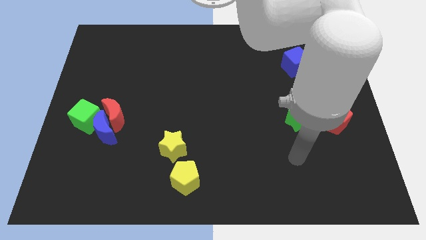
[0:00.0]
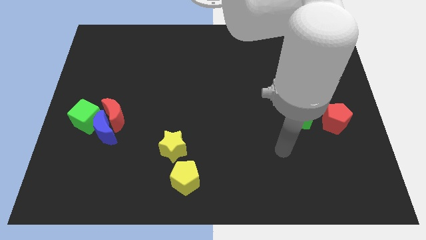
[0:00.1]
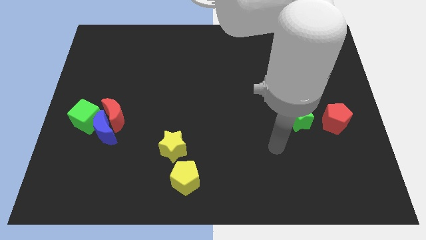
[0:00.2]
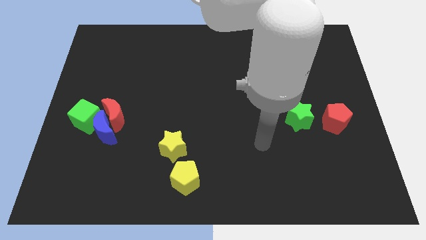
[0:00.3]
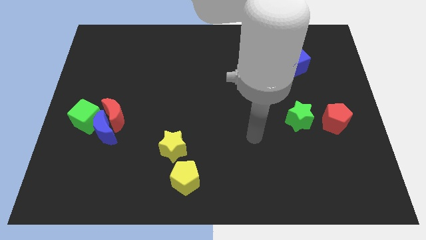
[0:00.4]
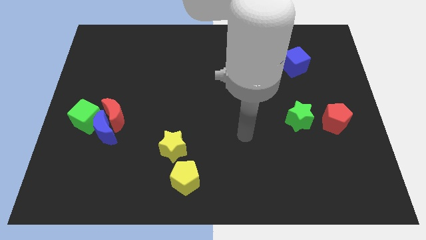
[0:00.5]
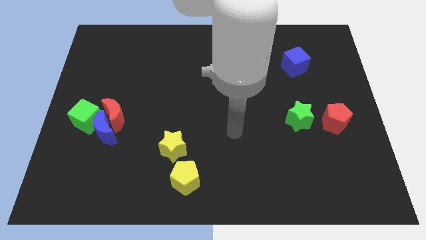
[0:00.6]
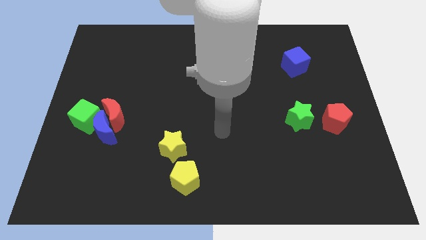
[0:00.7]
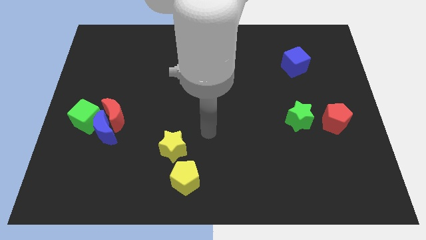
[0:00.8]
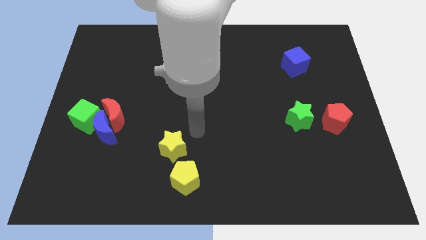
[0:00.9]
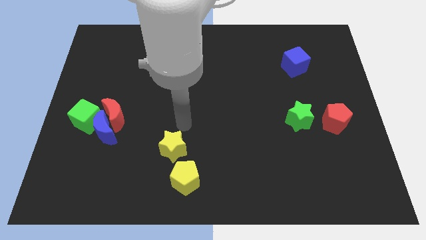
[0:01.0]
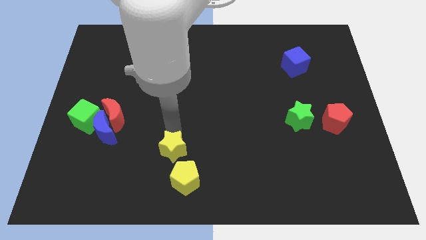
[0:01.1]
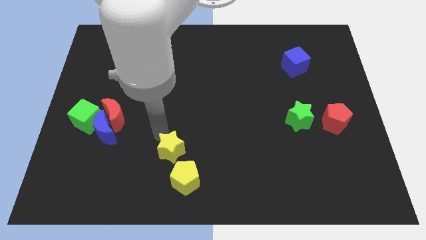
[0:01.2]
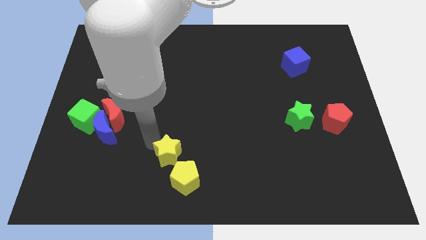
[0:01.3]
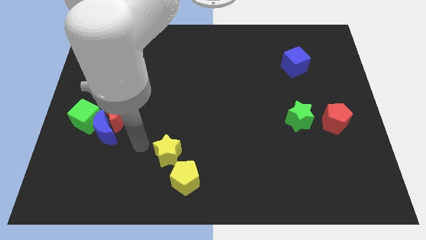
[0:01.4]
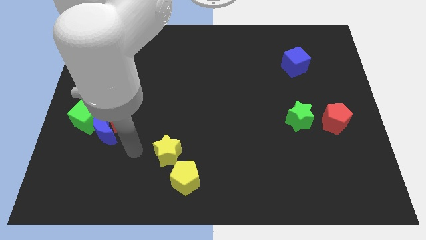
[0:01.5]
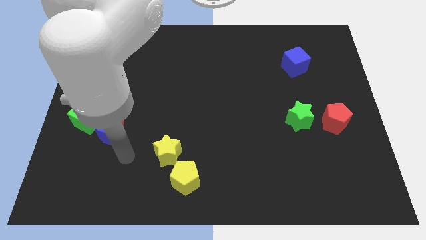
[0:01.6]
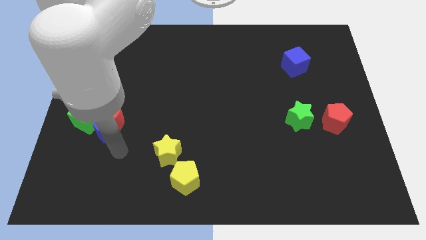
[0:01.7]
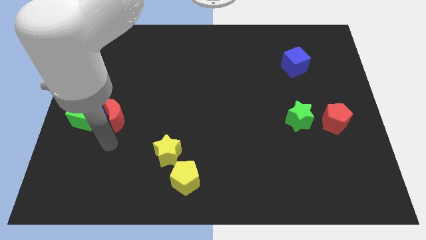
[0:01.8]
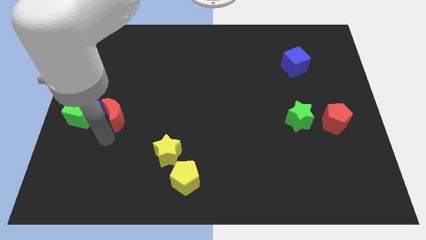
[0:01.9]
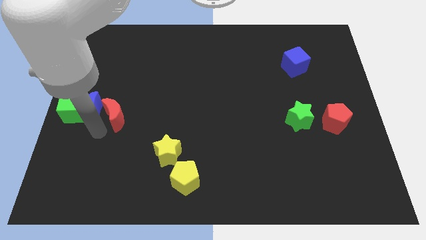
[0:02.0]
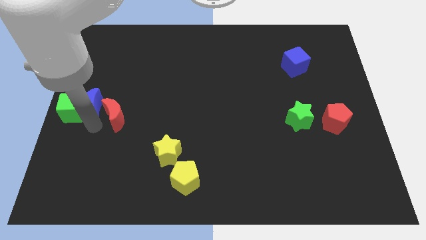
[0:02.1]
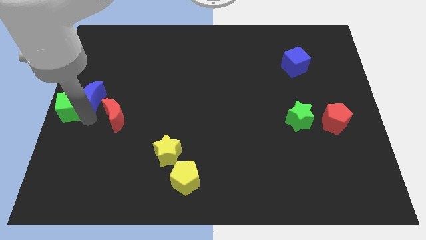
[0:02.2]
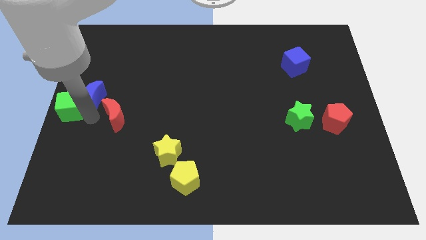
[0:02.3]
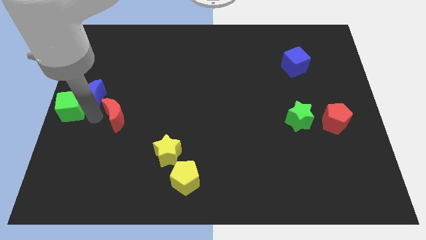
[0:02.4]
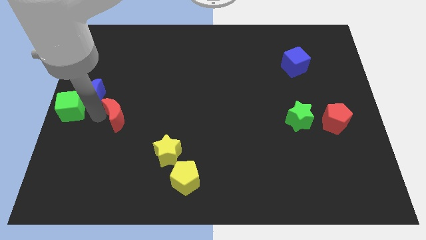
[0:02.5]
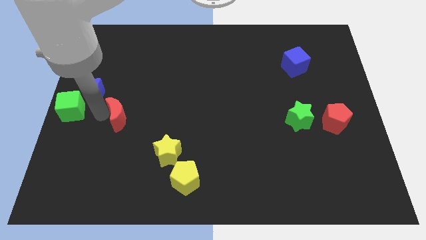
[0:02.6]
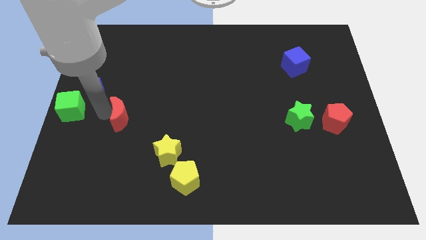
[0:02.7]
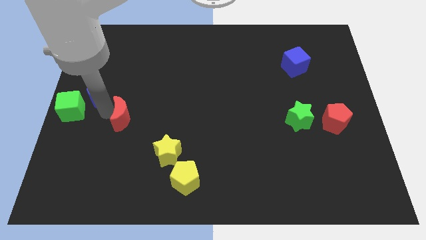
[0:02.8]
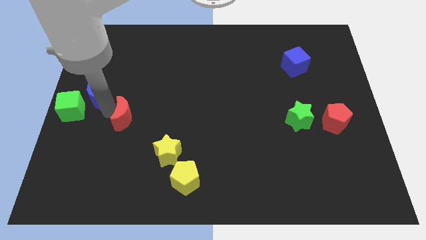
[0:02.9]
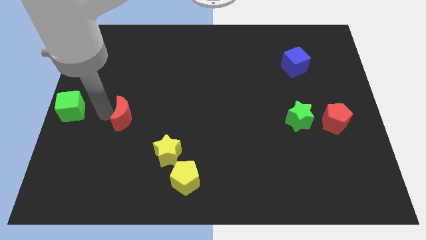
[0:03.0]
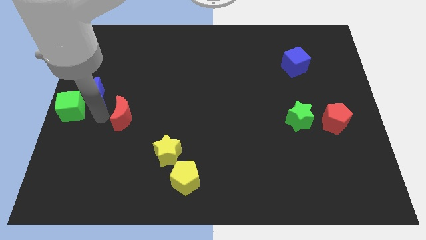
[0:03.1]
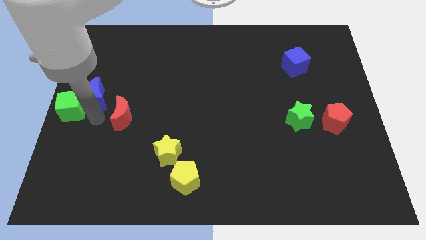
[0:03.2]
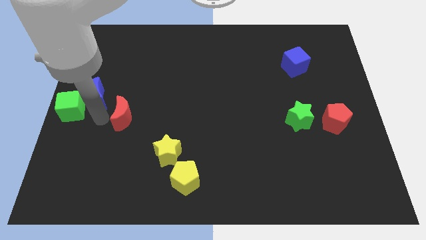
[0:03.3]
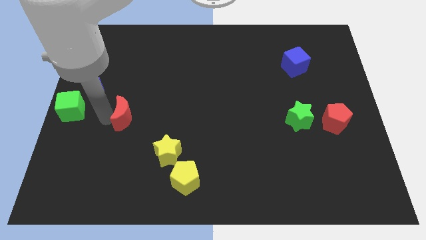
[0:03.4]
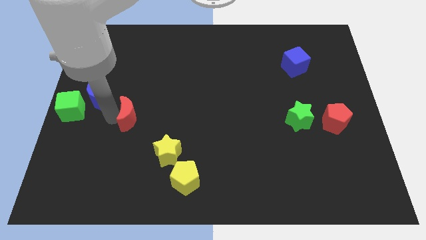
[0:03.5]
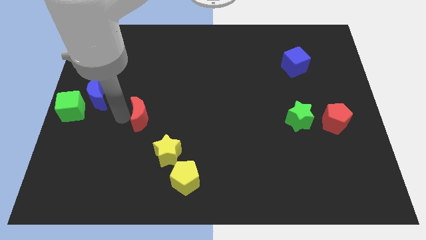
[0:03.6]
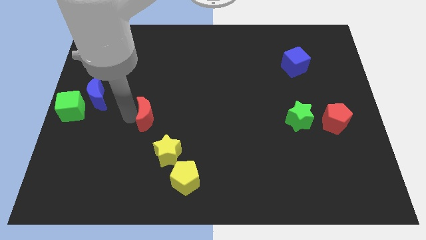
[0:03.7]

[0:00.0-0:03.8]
slightly push the red moon right

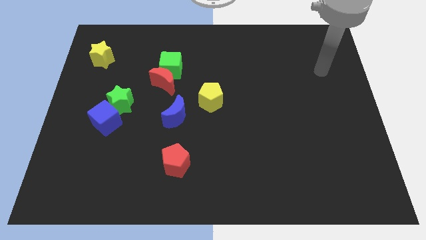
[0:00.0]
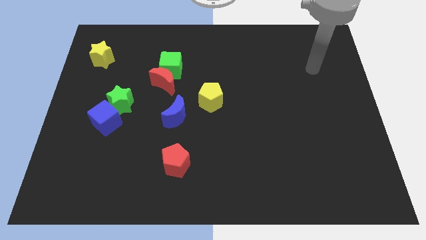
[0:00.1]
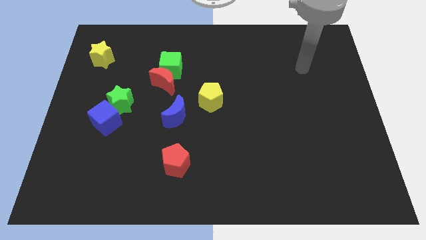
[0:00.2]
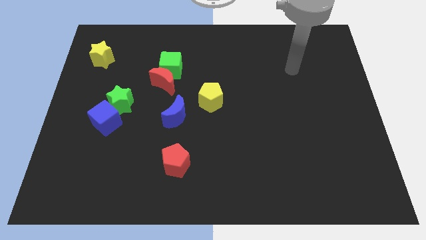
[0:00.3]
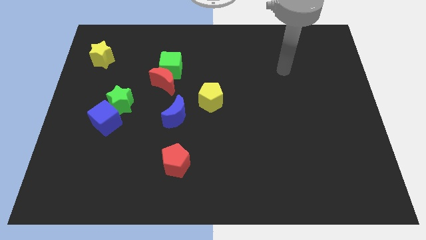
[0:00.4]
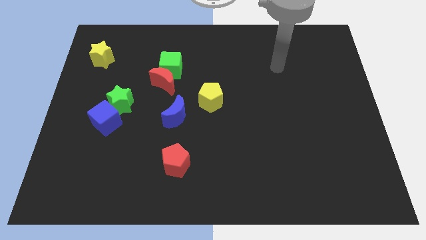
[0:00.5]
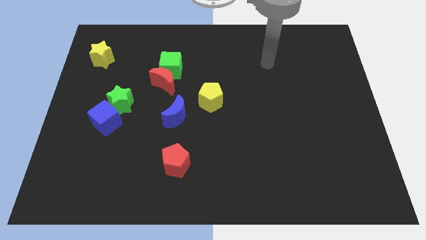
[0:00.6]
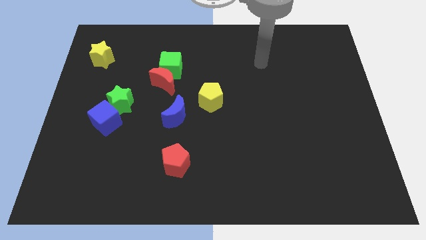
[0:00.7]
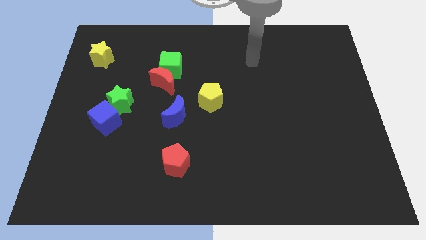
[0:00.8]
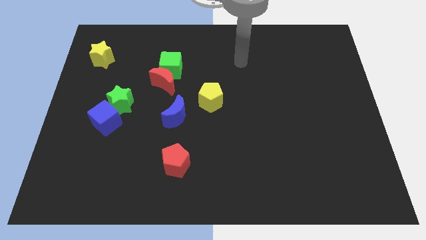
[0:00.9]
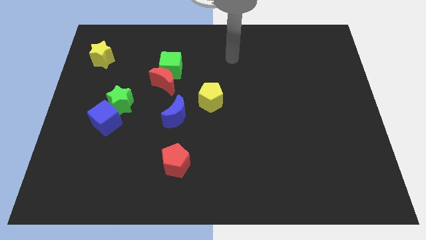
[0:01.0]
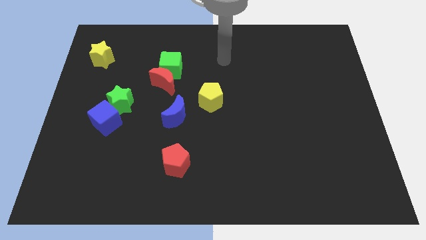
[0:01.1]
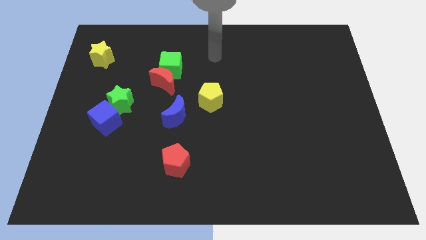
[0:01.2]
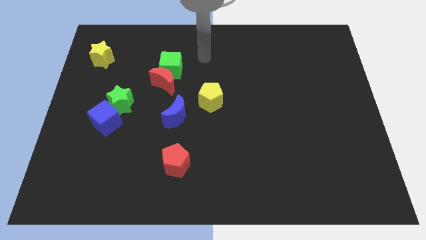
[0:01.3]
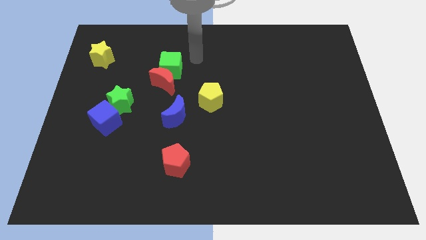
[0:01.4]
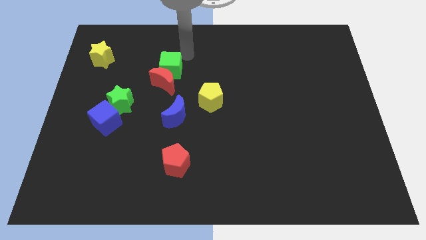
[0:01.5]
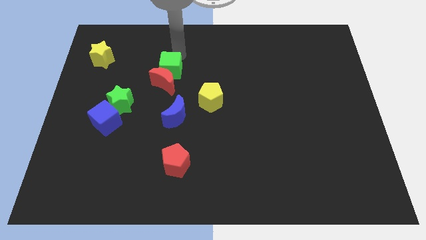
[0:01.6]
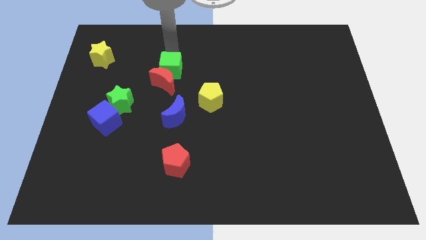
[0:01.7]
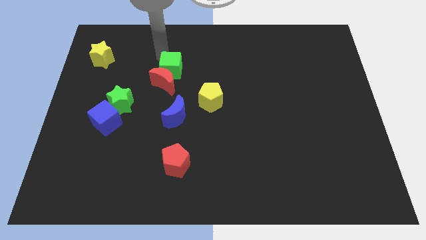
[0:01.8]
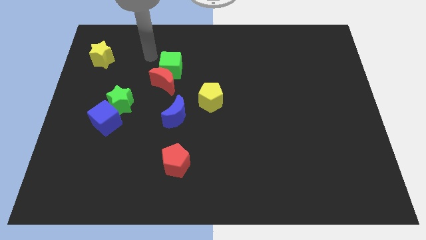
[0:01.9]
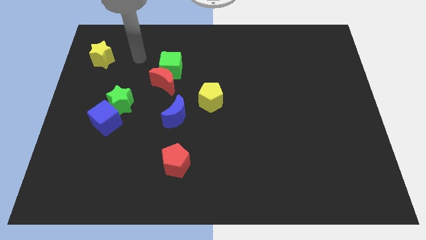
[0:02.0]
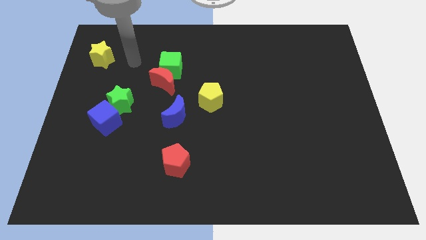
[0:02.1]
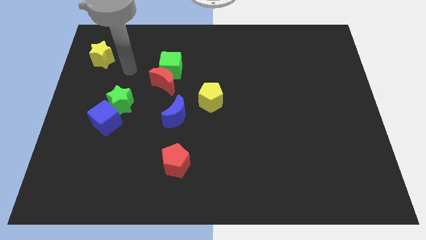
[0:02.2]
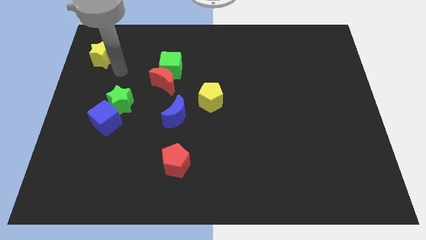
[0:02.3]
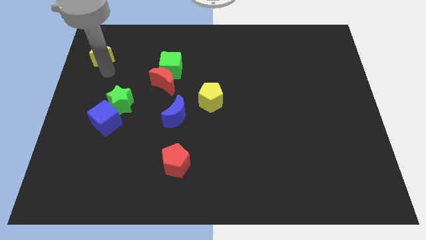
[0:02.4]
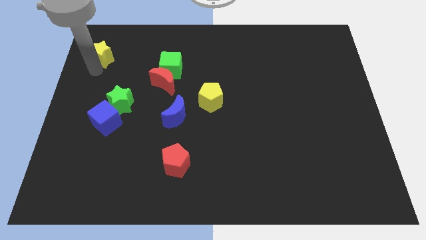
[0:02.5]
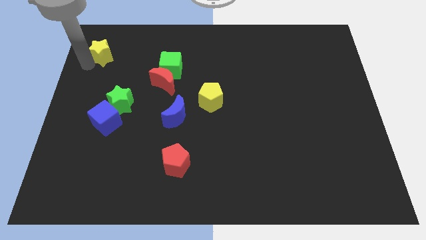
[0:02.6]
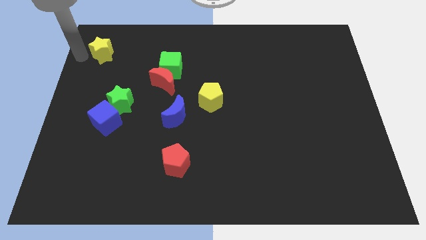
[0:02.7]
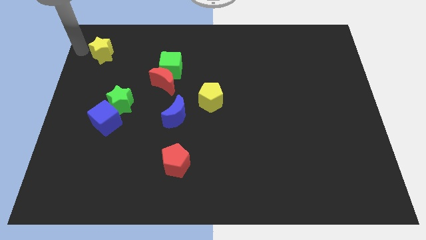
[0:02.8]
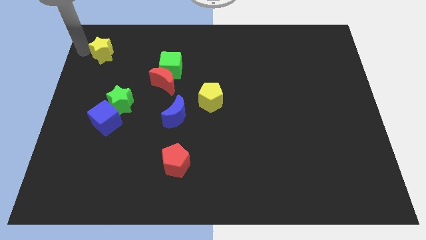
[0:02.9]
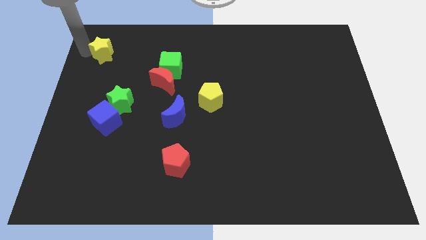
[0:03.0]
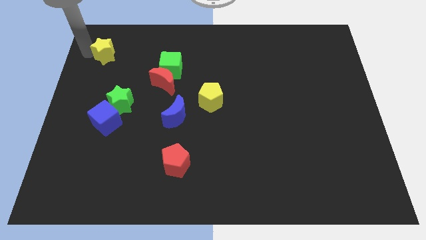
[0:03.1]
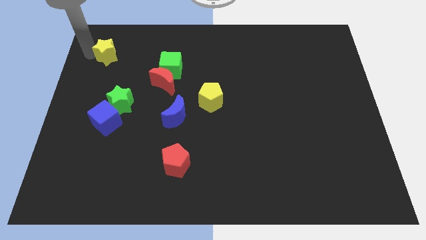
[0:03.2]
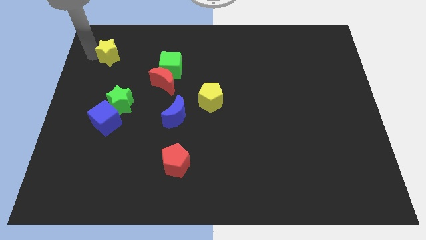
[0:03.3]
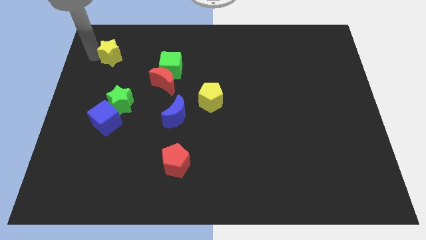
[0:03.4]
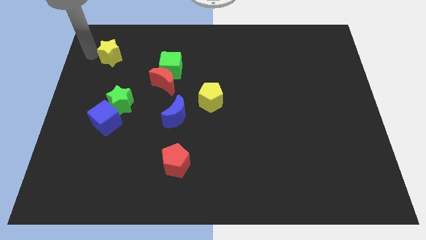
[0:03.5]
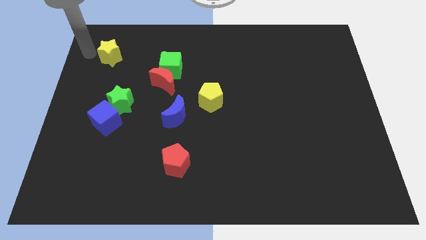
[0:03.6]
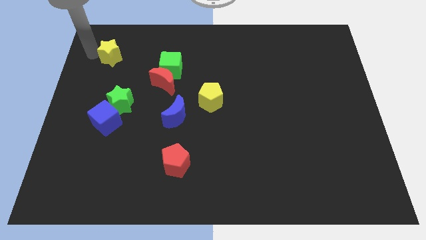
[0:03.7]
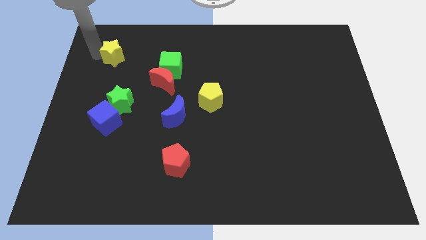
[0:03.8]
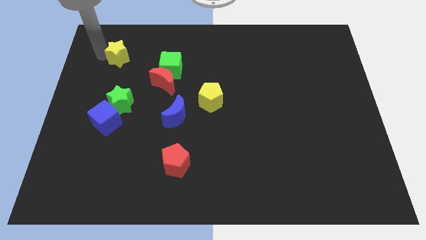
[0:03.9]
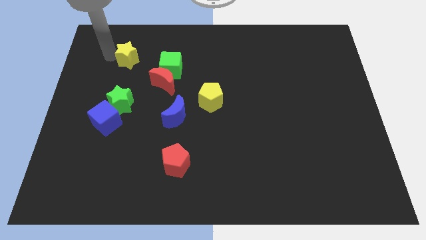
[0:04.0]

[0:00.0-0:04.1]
move the yellow star to the right a little

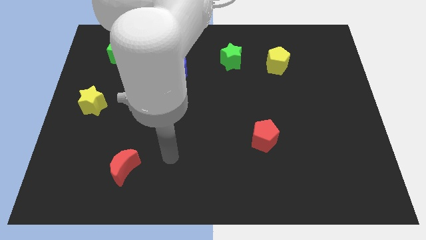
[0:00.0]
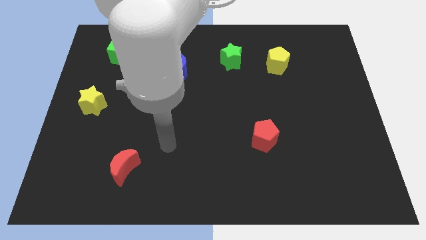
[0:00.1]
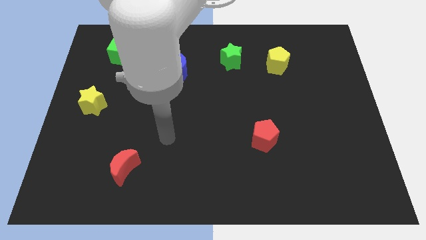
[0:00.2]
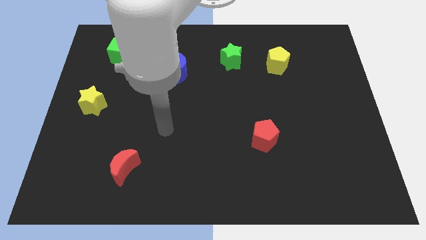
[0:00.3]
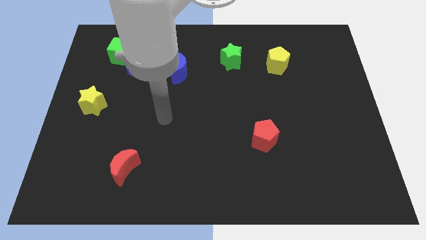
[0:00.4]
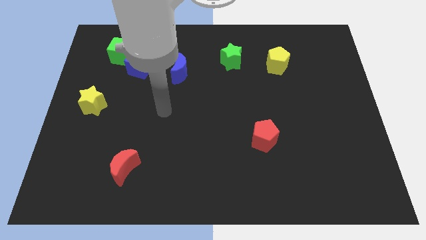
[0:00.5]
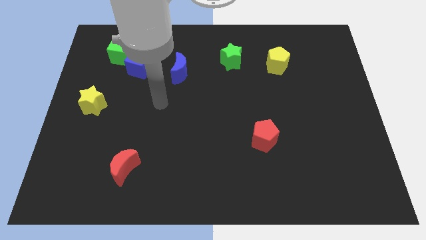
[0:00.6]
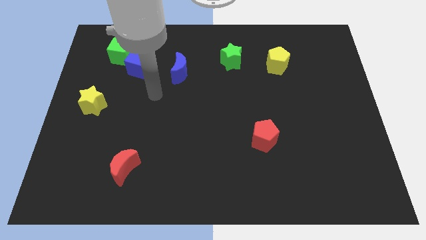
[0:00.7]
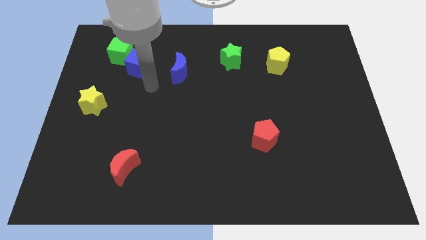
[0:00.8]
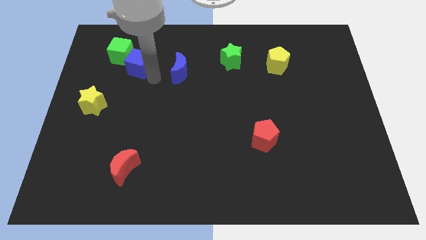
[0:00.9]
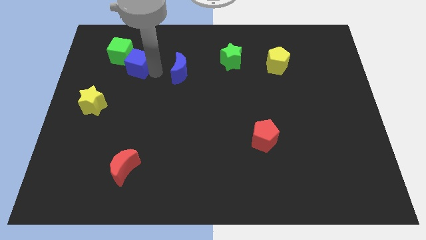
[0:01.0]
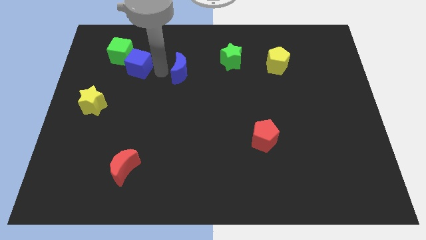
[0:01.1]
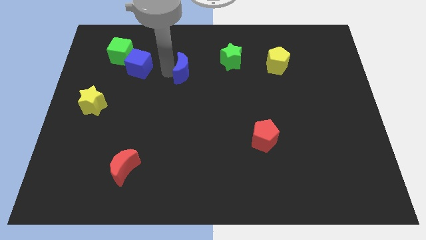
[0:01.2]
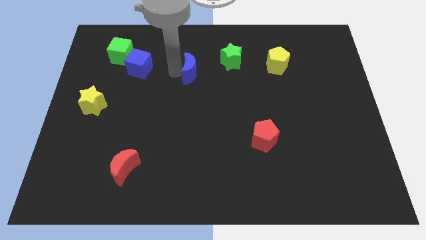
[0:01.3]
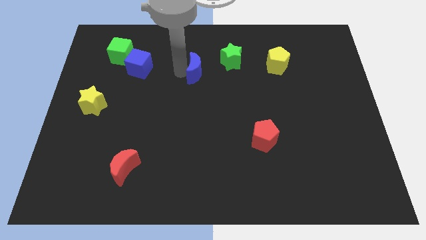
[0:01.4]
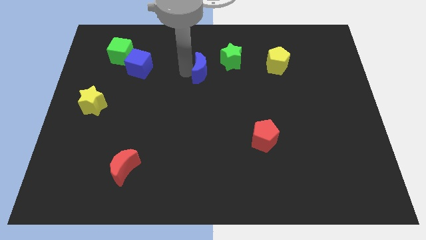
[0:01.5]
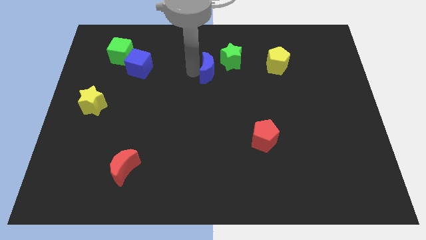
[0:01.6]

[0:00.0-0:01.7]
slide the blue moon to the right a little bit
